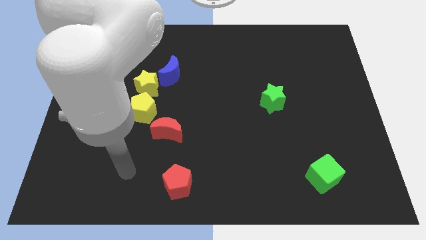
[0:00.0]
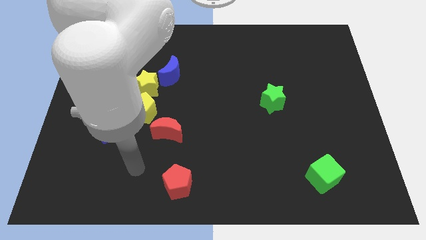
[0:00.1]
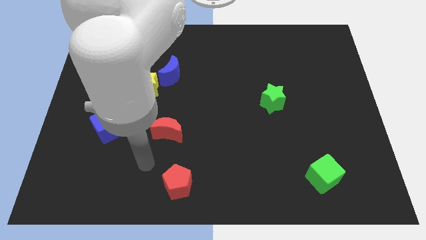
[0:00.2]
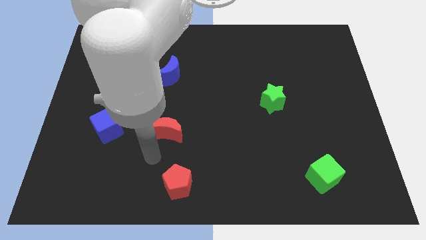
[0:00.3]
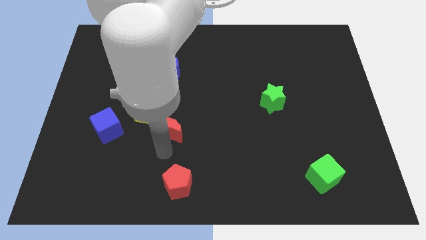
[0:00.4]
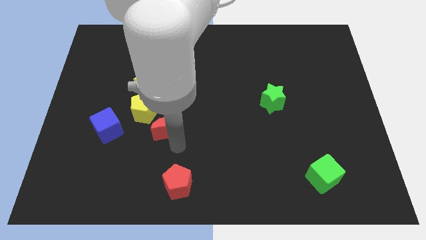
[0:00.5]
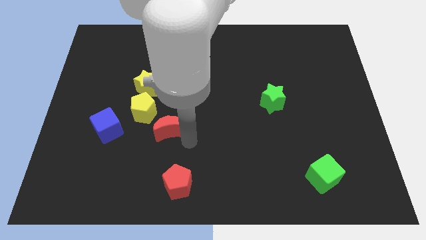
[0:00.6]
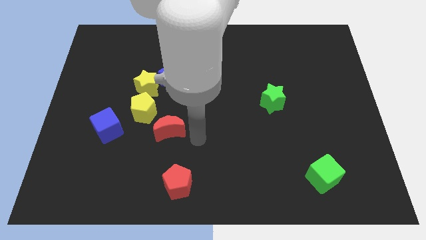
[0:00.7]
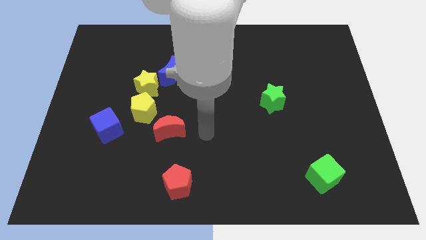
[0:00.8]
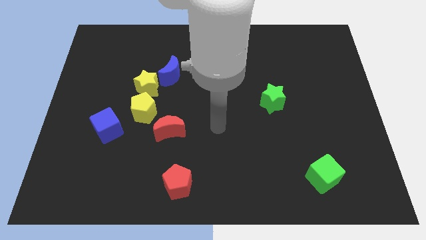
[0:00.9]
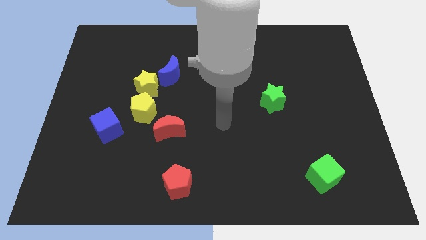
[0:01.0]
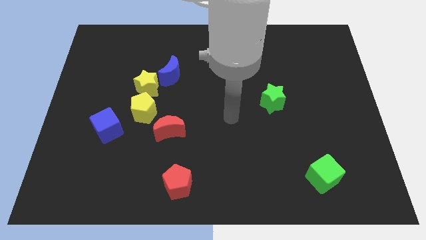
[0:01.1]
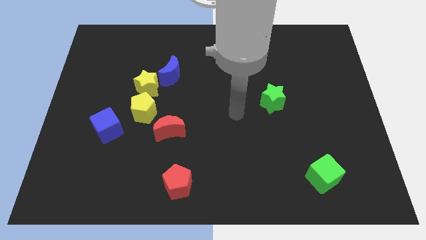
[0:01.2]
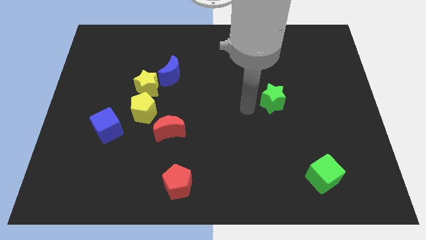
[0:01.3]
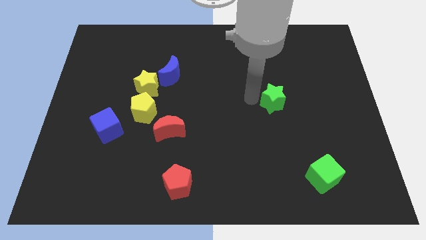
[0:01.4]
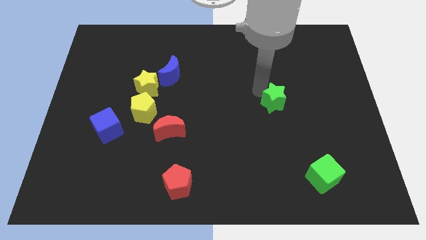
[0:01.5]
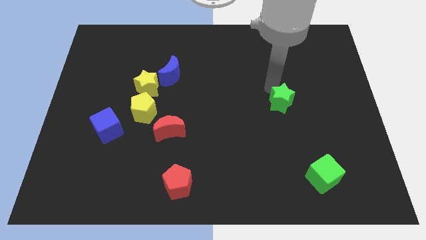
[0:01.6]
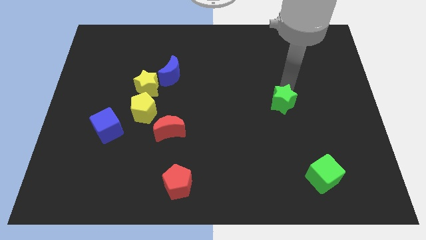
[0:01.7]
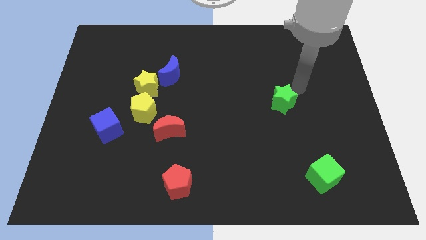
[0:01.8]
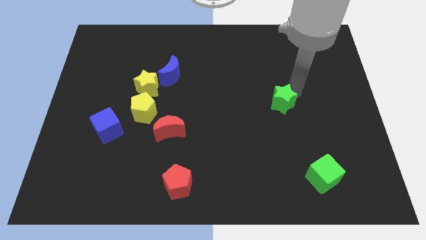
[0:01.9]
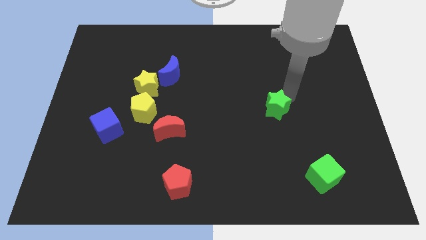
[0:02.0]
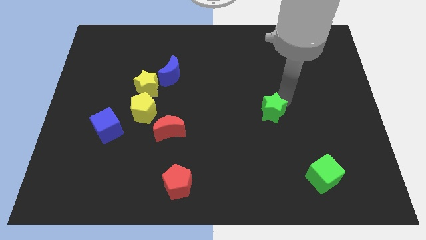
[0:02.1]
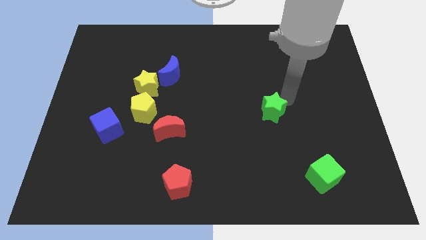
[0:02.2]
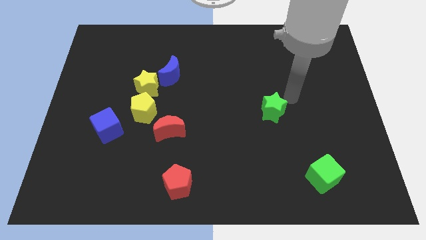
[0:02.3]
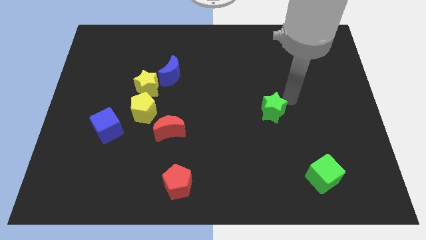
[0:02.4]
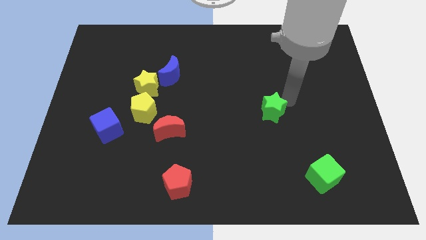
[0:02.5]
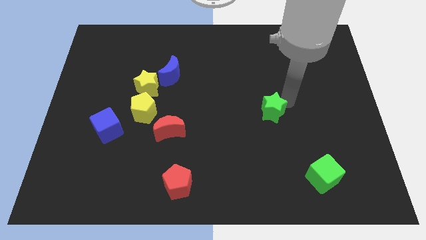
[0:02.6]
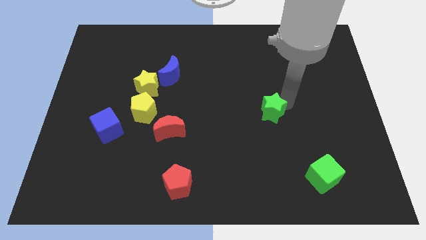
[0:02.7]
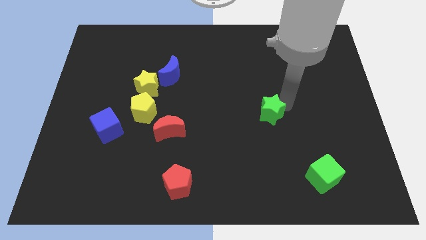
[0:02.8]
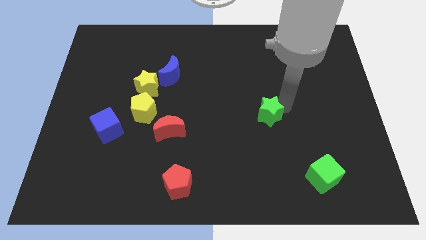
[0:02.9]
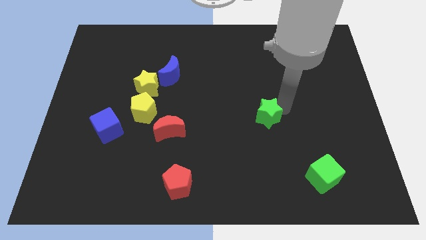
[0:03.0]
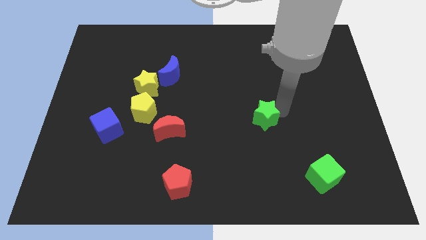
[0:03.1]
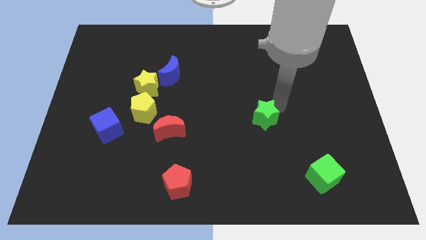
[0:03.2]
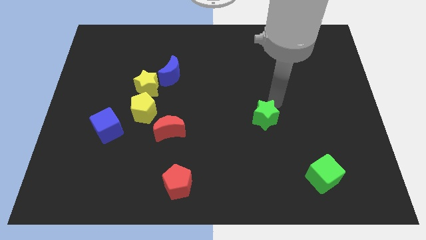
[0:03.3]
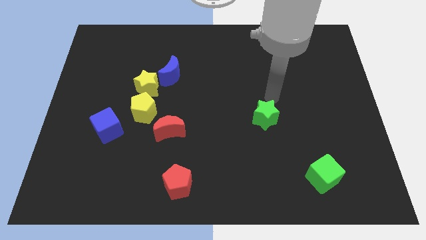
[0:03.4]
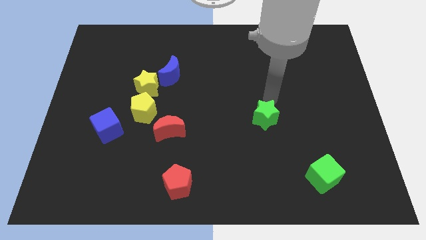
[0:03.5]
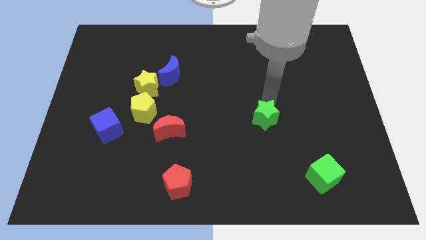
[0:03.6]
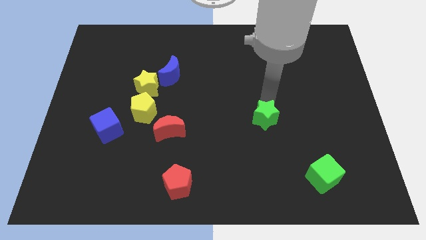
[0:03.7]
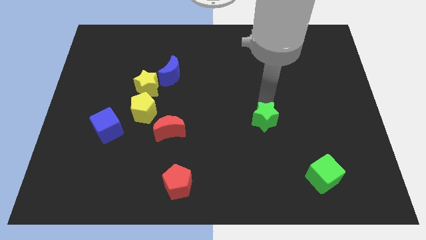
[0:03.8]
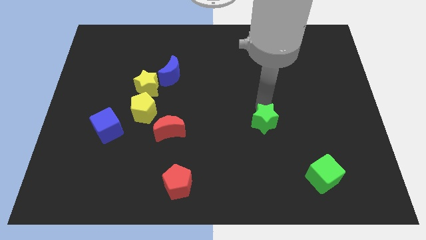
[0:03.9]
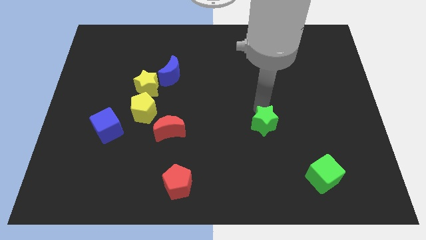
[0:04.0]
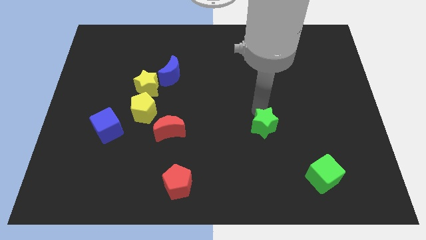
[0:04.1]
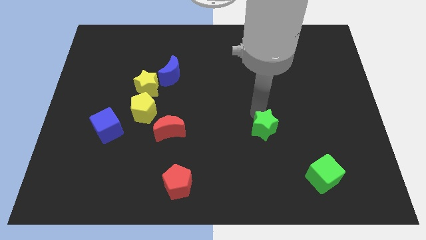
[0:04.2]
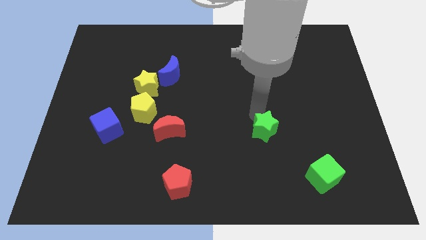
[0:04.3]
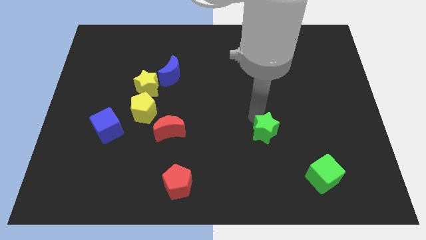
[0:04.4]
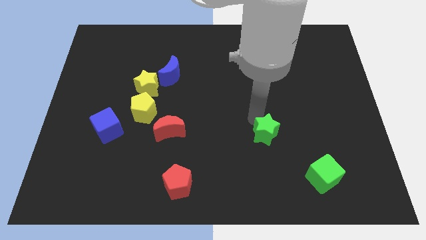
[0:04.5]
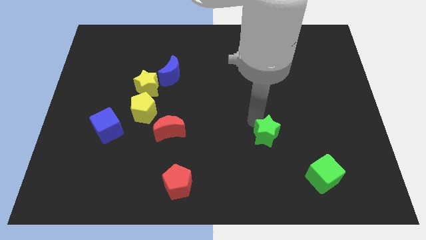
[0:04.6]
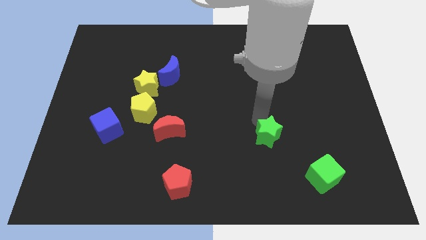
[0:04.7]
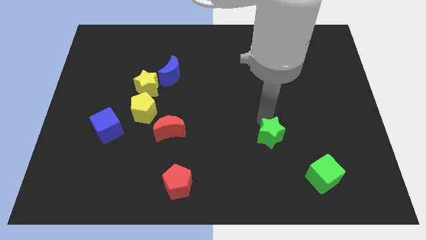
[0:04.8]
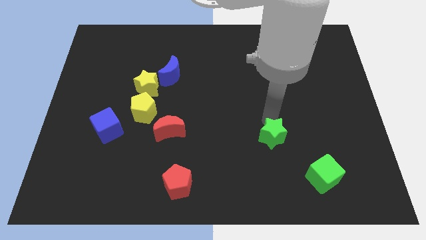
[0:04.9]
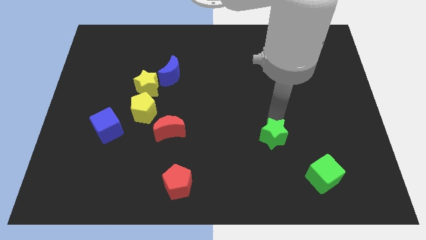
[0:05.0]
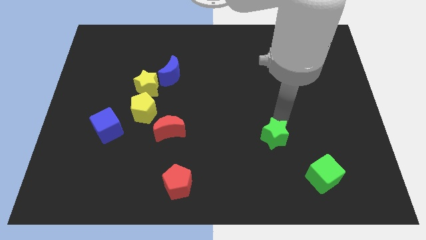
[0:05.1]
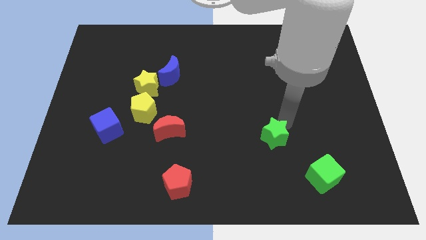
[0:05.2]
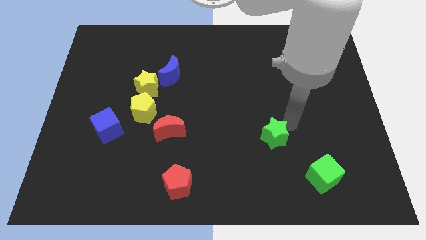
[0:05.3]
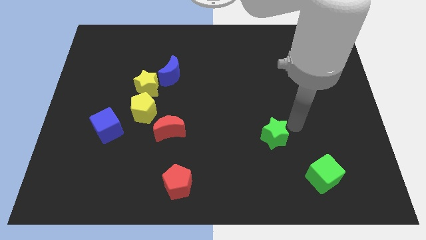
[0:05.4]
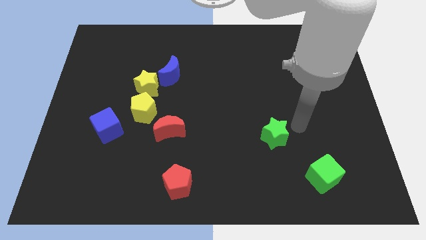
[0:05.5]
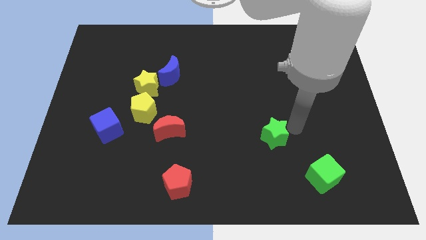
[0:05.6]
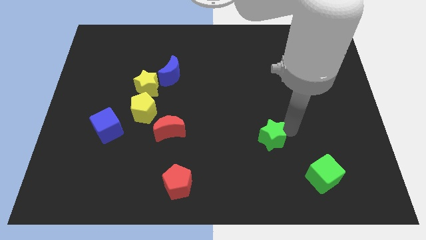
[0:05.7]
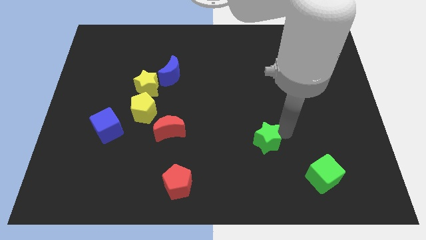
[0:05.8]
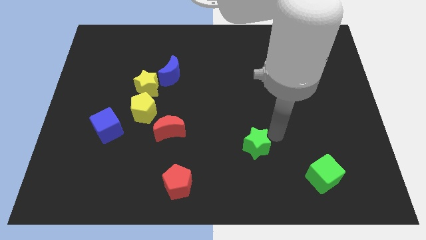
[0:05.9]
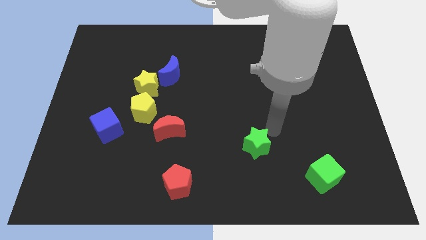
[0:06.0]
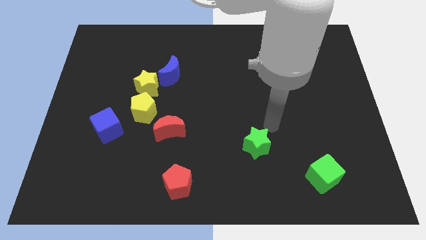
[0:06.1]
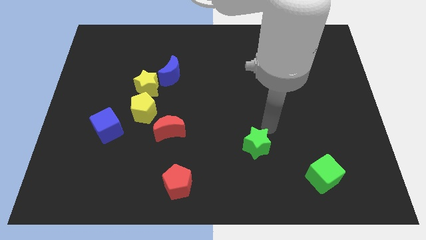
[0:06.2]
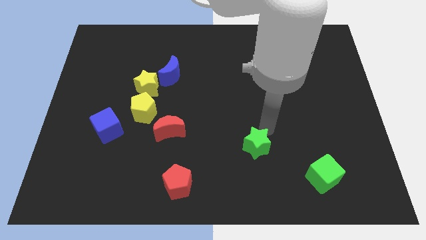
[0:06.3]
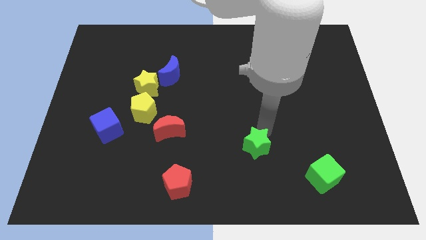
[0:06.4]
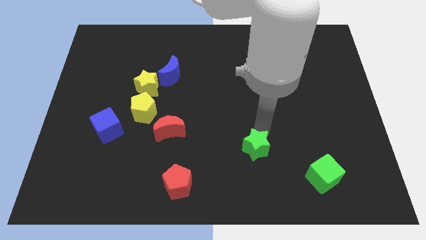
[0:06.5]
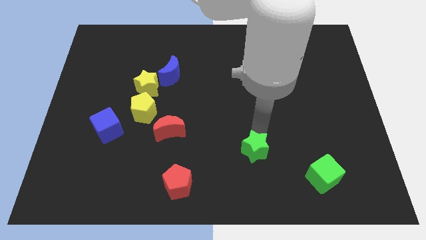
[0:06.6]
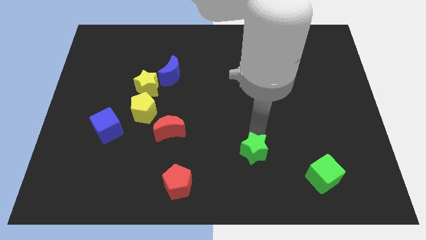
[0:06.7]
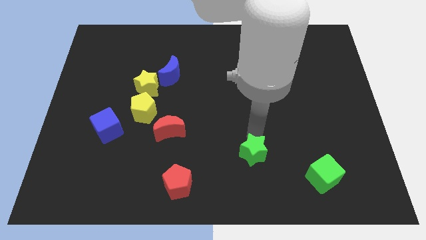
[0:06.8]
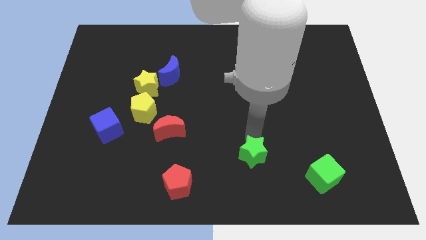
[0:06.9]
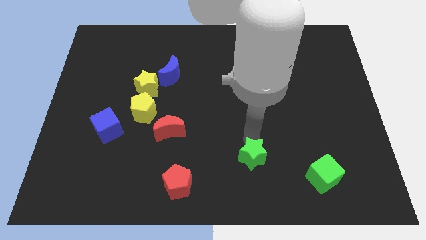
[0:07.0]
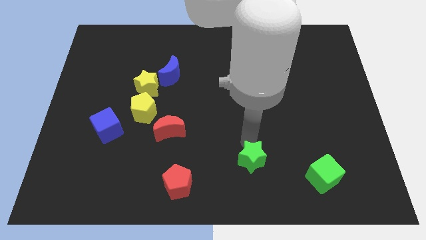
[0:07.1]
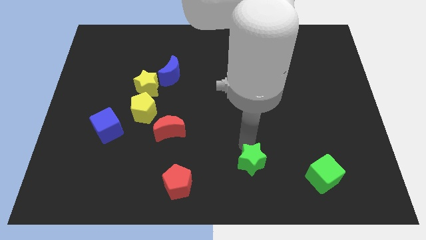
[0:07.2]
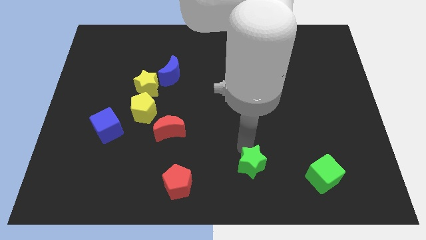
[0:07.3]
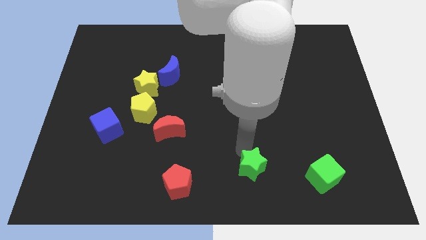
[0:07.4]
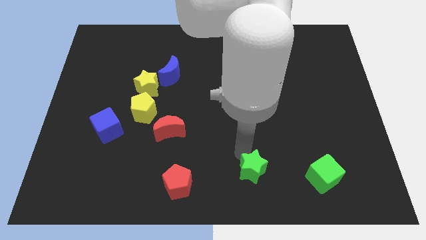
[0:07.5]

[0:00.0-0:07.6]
move the green star to the right of the red pentagon

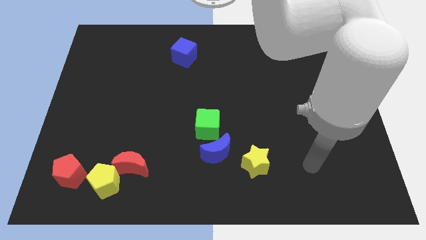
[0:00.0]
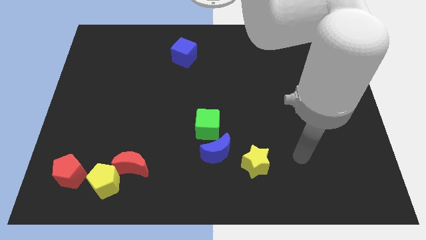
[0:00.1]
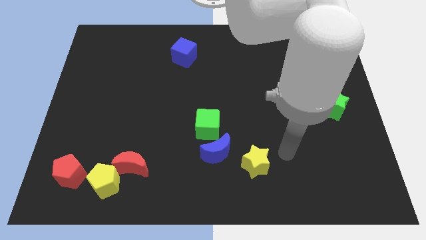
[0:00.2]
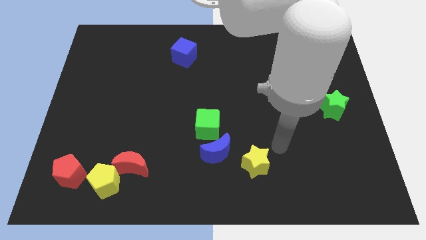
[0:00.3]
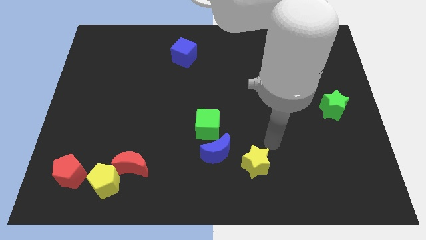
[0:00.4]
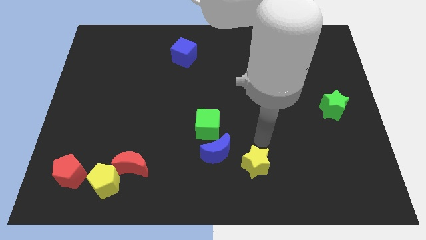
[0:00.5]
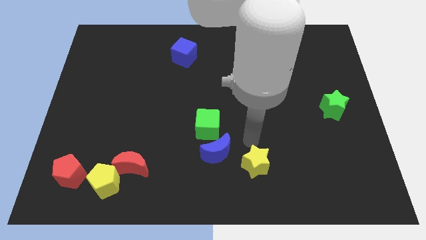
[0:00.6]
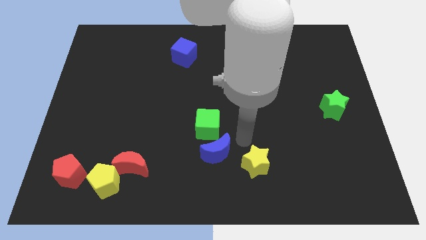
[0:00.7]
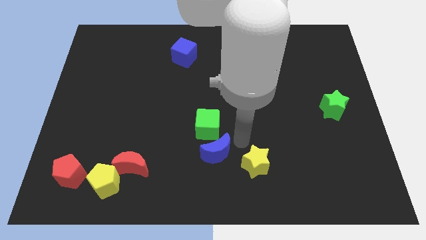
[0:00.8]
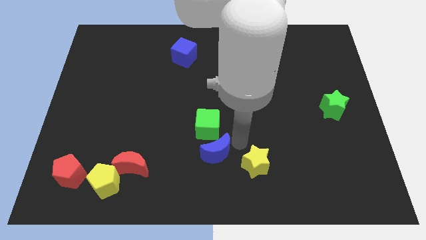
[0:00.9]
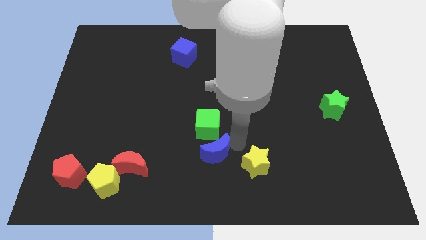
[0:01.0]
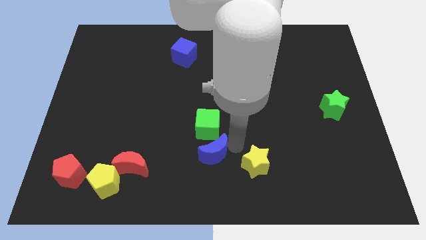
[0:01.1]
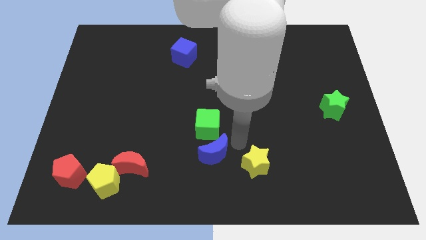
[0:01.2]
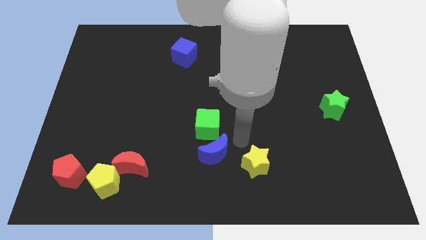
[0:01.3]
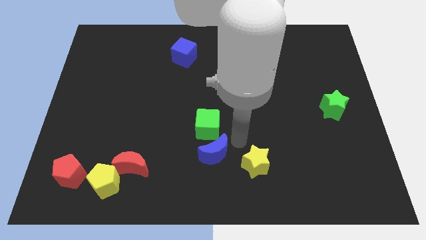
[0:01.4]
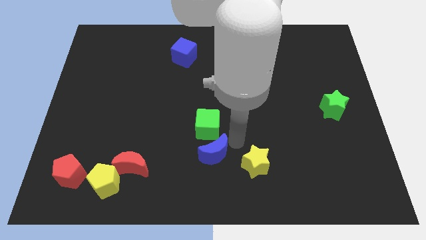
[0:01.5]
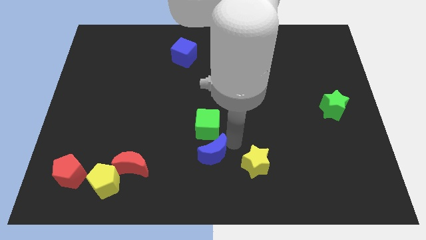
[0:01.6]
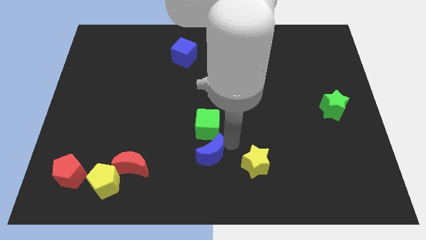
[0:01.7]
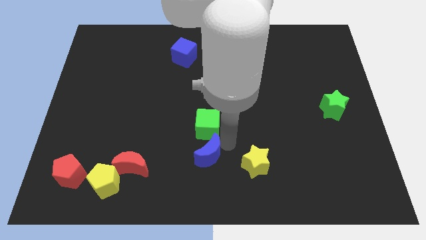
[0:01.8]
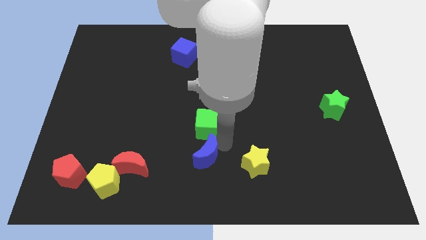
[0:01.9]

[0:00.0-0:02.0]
push the blue moon to the right of the red moon
